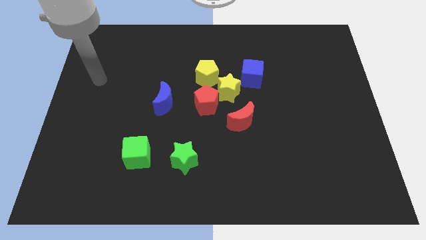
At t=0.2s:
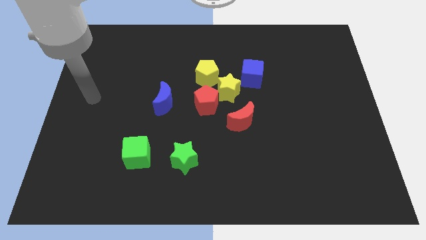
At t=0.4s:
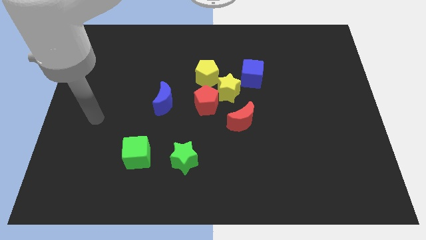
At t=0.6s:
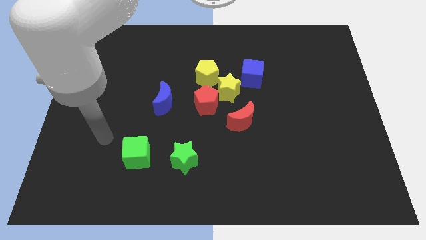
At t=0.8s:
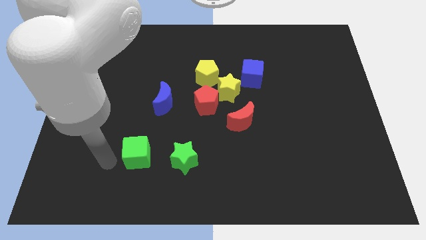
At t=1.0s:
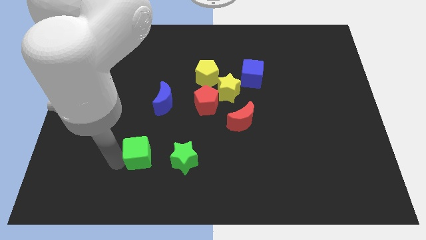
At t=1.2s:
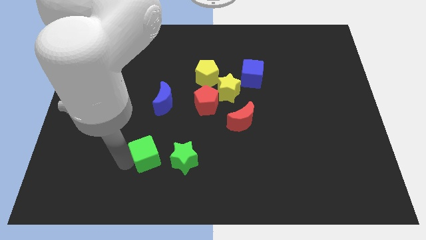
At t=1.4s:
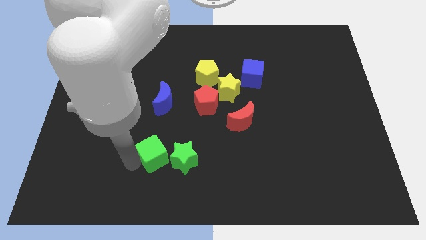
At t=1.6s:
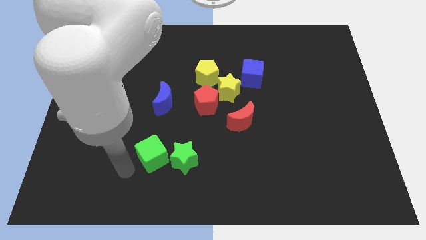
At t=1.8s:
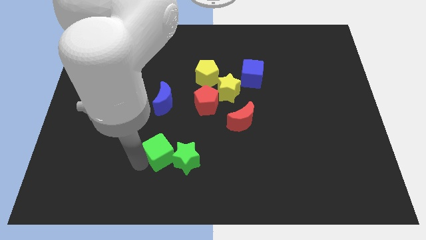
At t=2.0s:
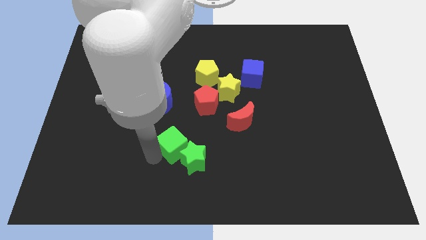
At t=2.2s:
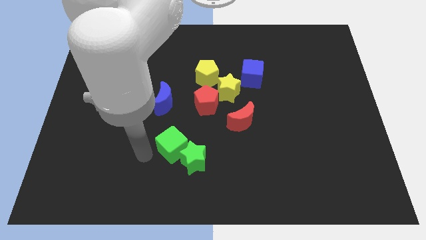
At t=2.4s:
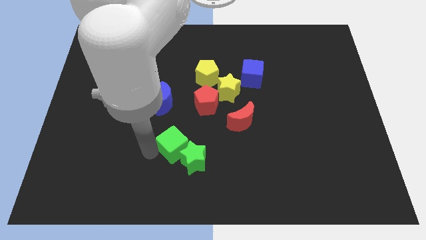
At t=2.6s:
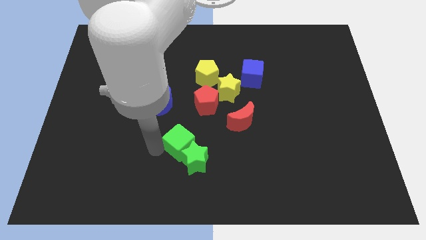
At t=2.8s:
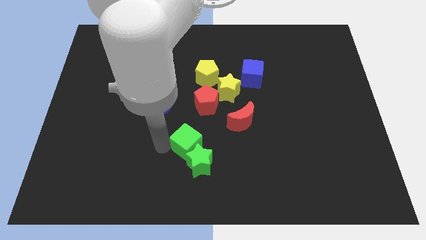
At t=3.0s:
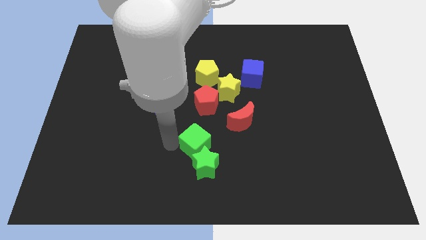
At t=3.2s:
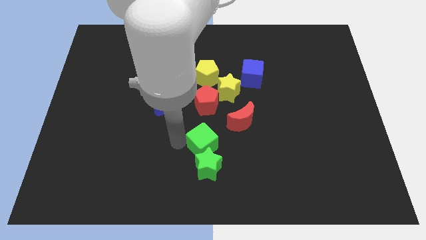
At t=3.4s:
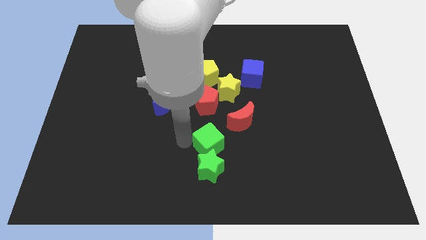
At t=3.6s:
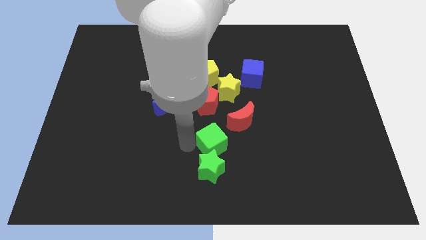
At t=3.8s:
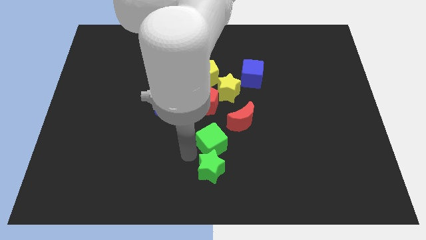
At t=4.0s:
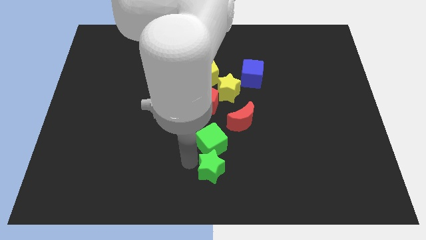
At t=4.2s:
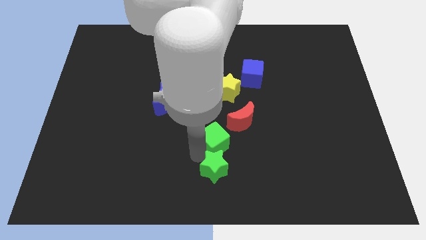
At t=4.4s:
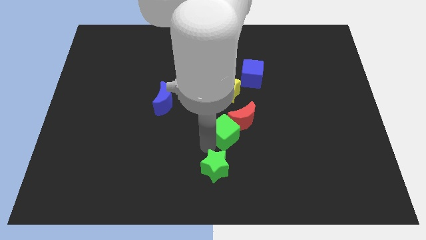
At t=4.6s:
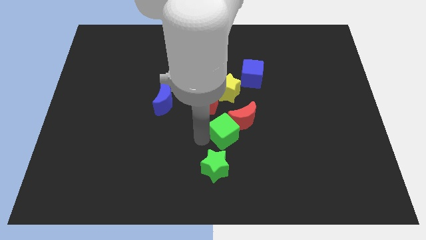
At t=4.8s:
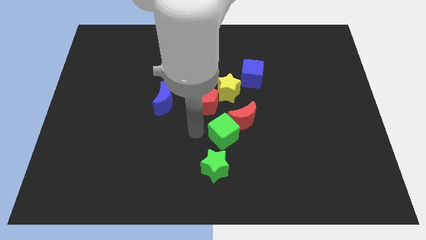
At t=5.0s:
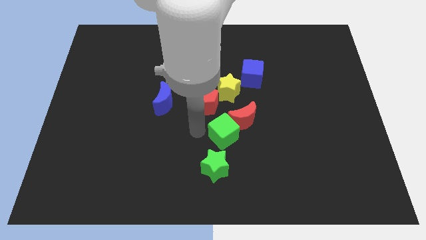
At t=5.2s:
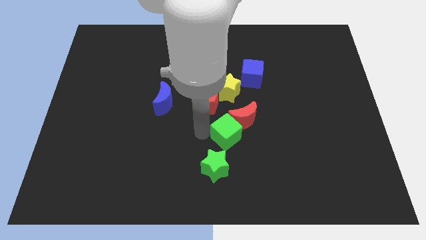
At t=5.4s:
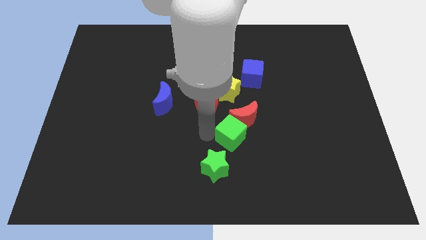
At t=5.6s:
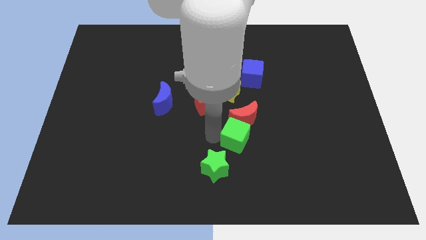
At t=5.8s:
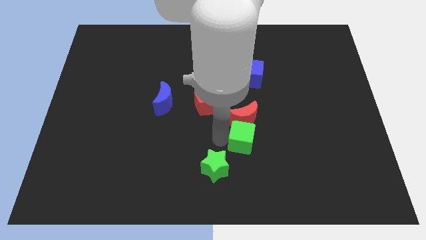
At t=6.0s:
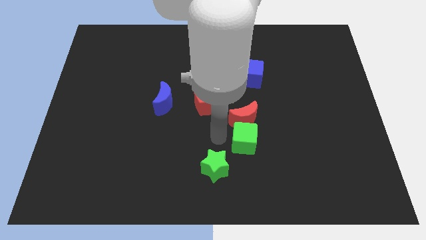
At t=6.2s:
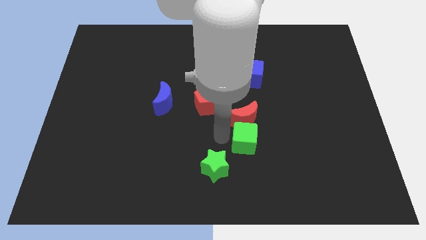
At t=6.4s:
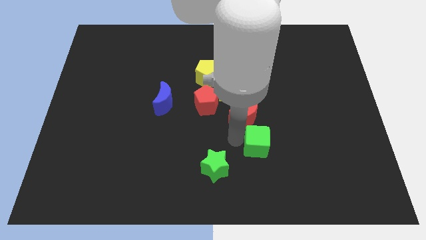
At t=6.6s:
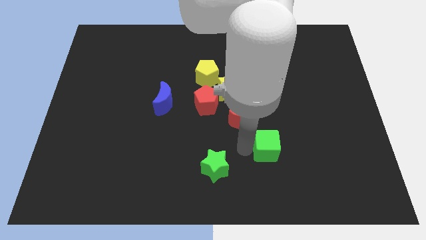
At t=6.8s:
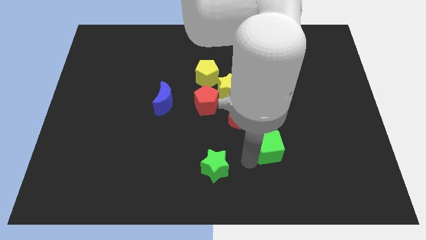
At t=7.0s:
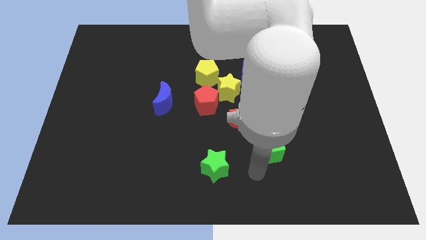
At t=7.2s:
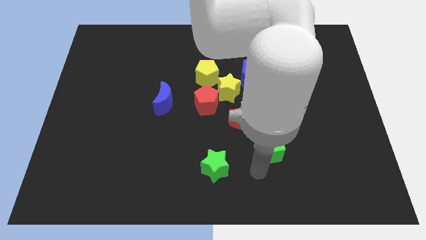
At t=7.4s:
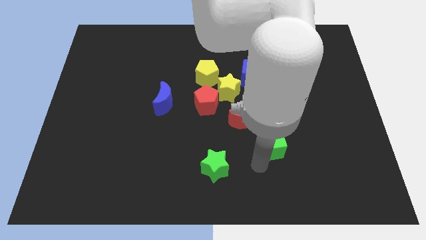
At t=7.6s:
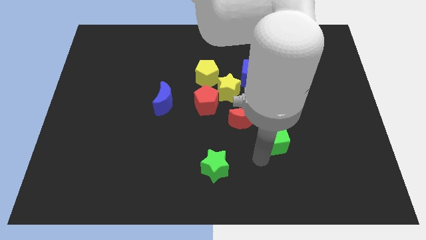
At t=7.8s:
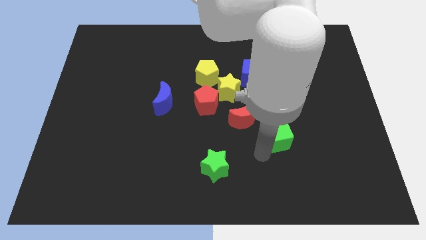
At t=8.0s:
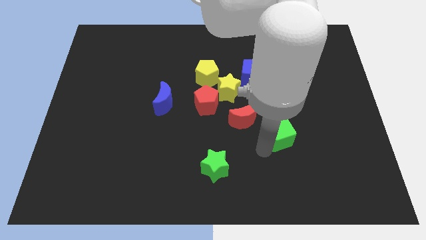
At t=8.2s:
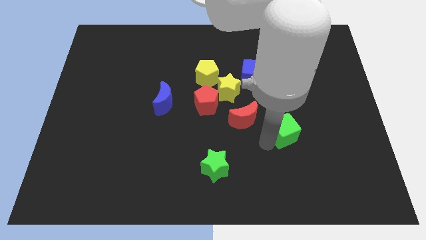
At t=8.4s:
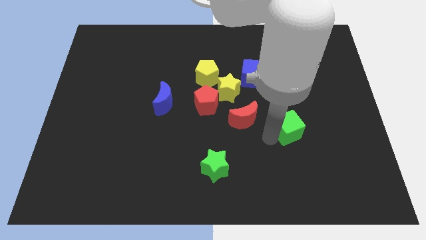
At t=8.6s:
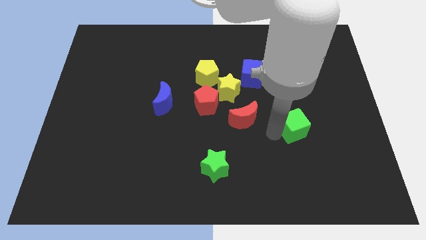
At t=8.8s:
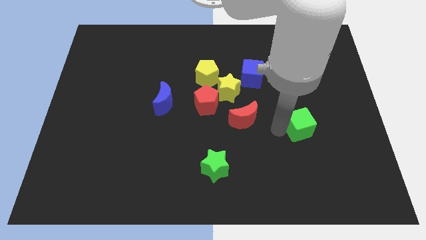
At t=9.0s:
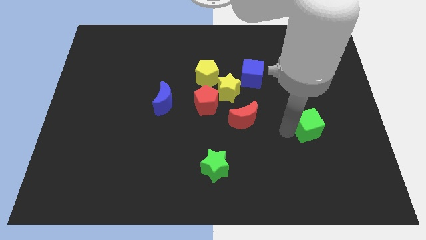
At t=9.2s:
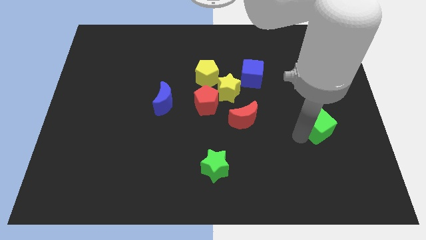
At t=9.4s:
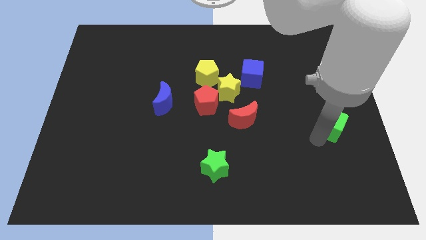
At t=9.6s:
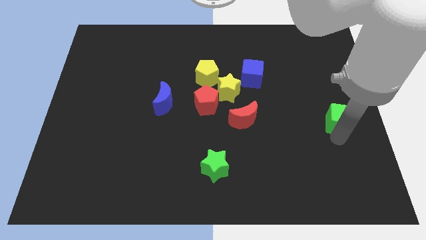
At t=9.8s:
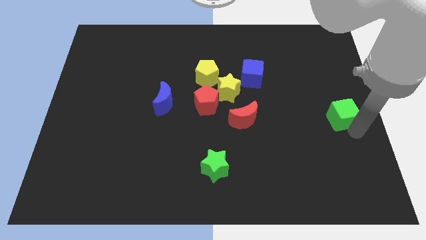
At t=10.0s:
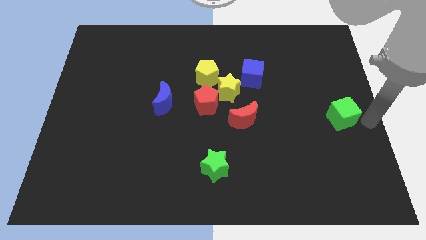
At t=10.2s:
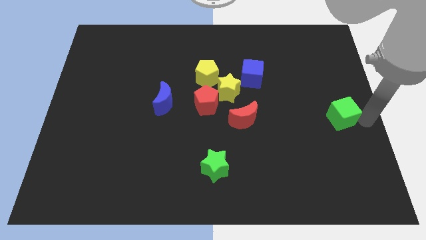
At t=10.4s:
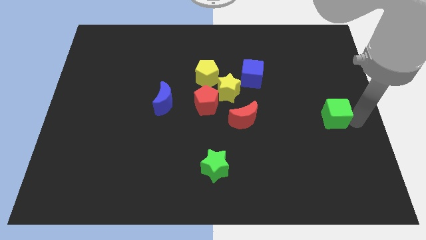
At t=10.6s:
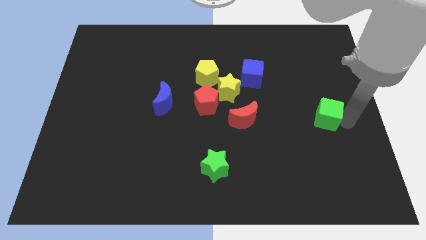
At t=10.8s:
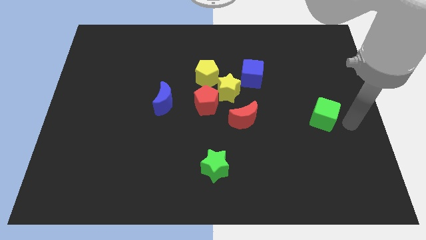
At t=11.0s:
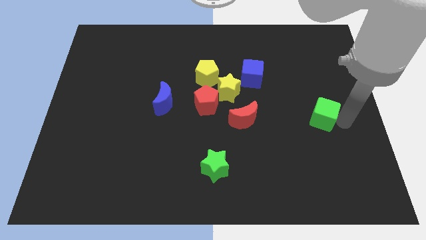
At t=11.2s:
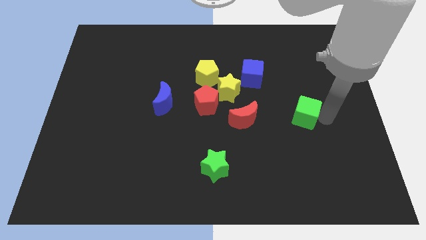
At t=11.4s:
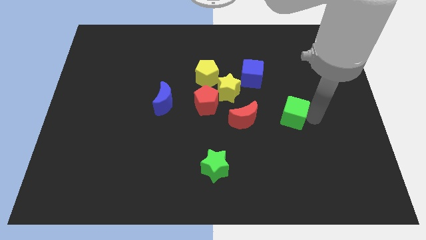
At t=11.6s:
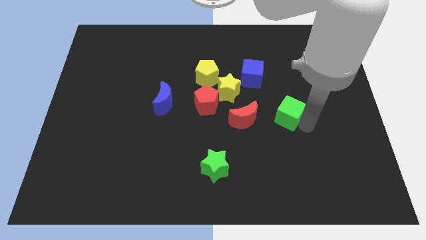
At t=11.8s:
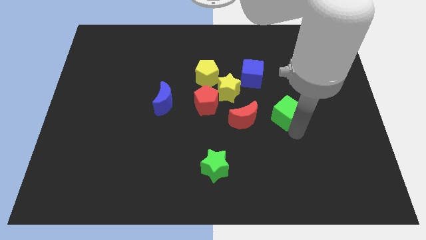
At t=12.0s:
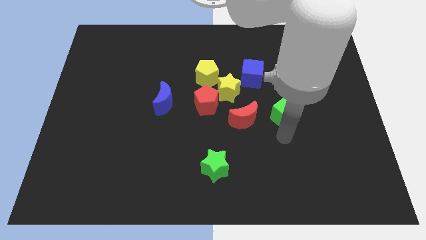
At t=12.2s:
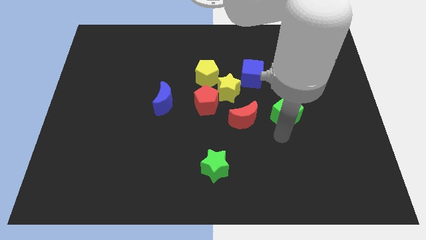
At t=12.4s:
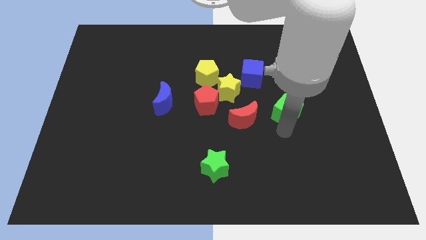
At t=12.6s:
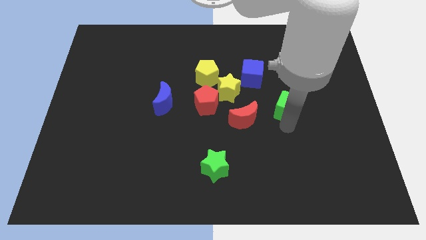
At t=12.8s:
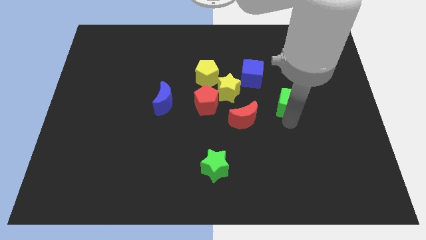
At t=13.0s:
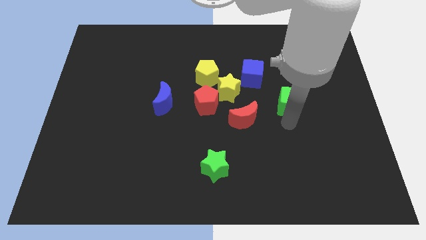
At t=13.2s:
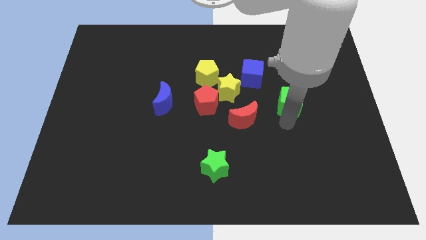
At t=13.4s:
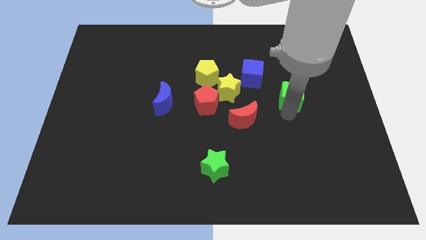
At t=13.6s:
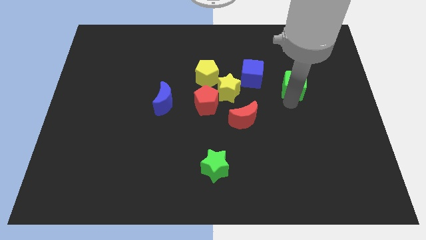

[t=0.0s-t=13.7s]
move the green cube to the right of the blue cube

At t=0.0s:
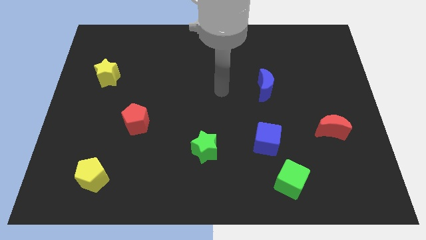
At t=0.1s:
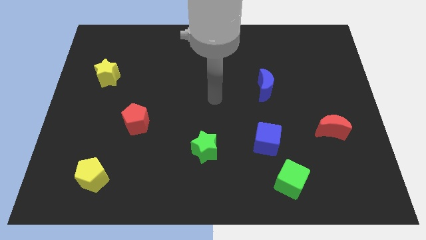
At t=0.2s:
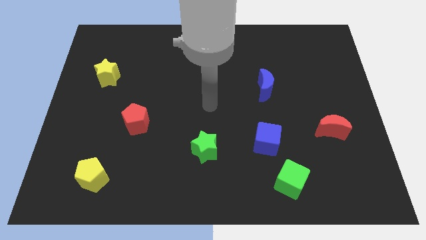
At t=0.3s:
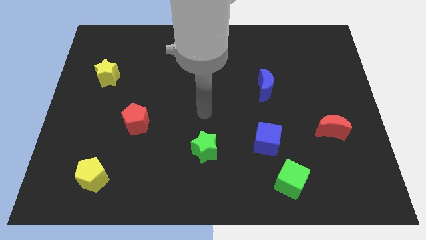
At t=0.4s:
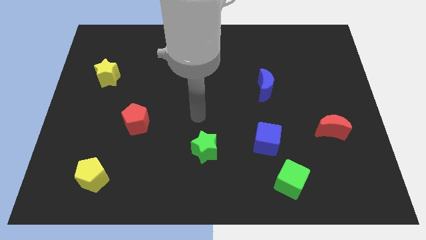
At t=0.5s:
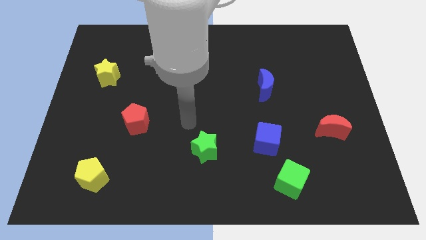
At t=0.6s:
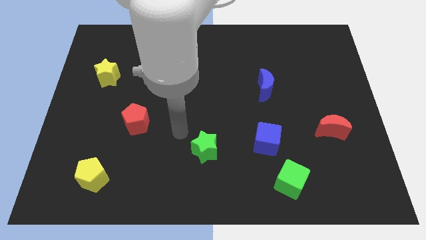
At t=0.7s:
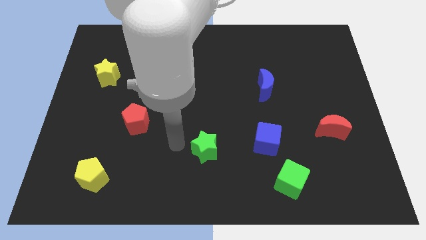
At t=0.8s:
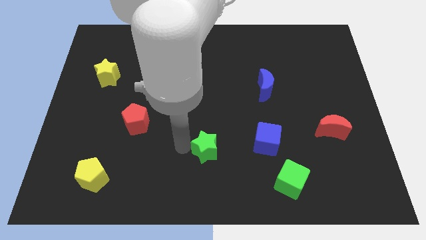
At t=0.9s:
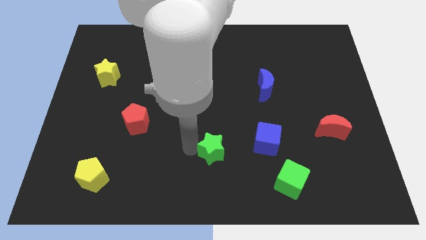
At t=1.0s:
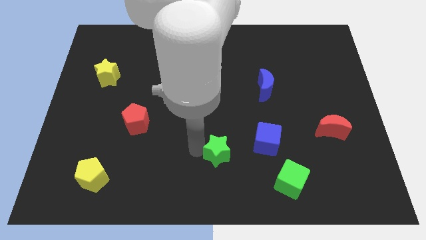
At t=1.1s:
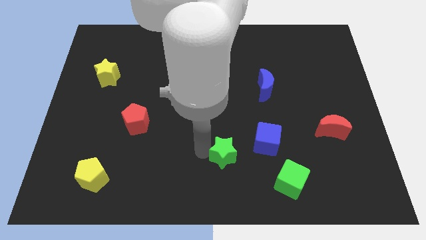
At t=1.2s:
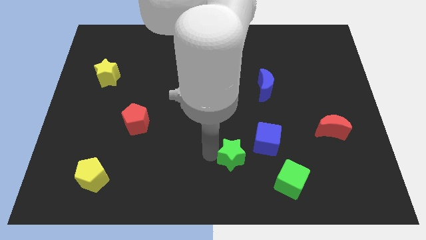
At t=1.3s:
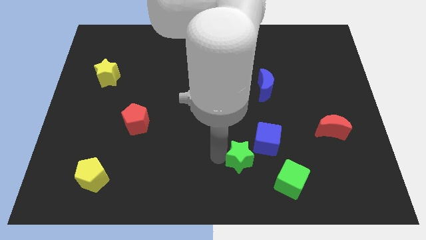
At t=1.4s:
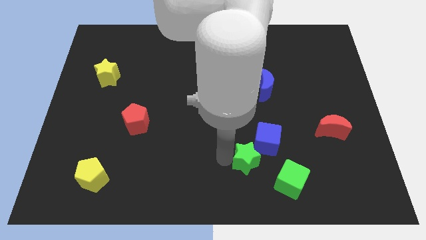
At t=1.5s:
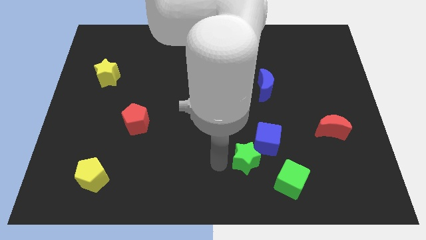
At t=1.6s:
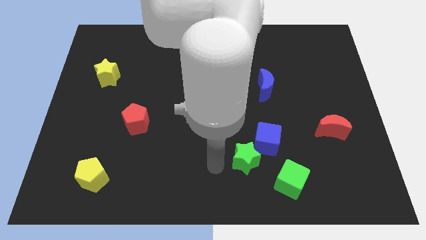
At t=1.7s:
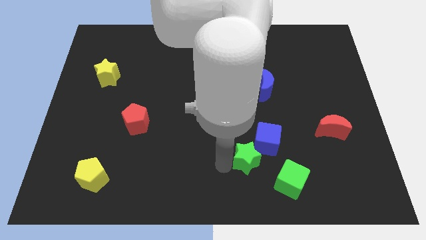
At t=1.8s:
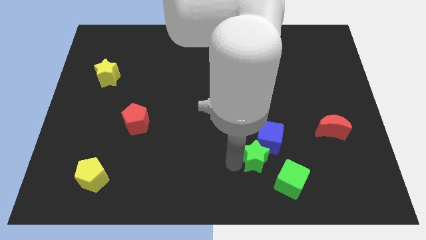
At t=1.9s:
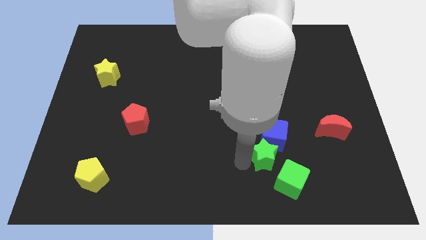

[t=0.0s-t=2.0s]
move the green star above the green cube
